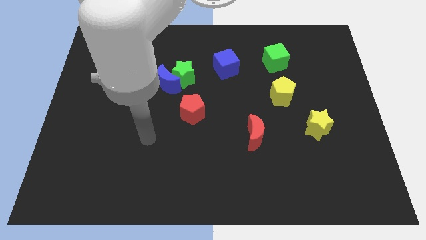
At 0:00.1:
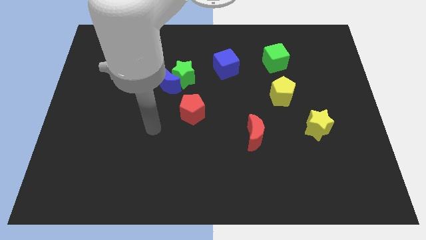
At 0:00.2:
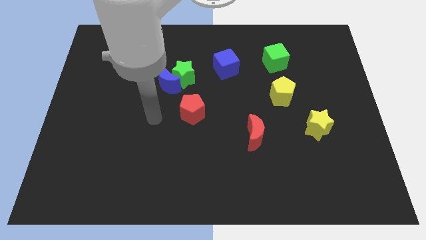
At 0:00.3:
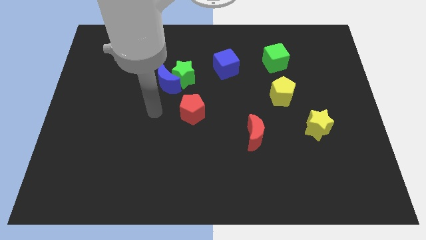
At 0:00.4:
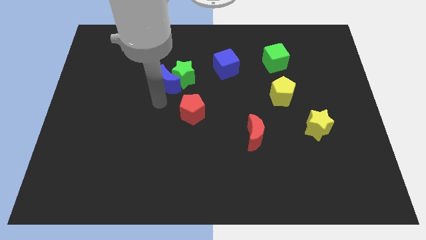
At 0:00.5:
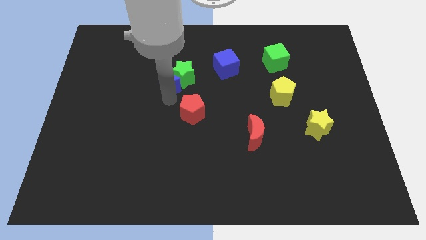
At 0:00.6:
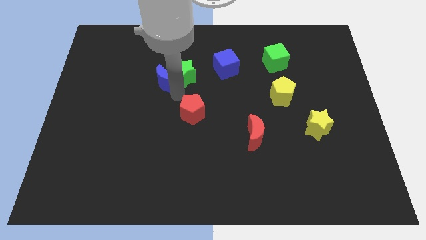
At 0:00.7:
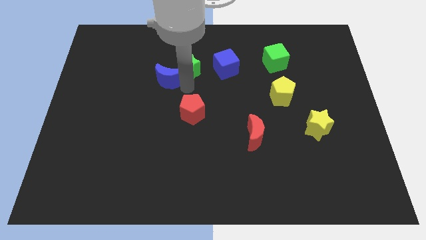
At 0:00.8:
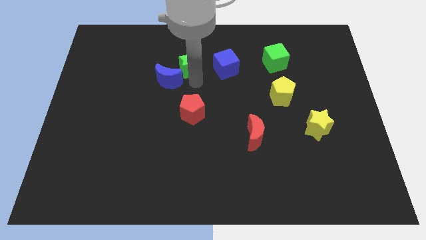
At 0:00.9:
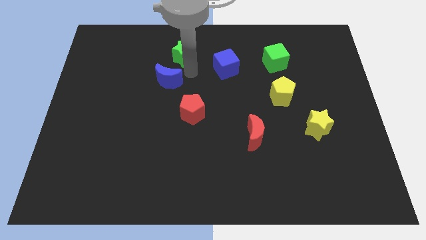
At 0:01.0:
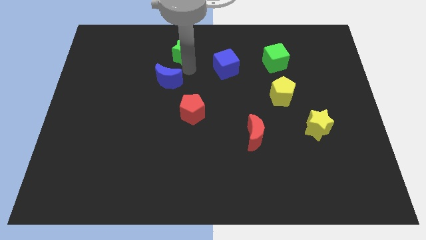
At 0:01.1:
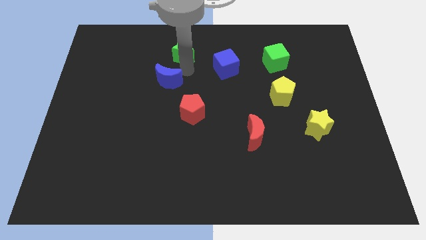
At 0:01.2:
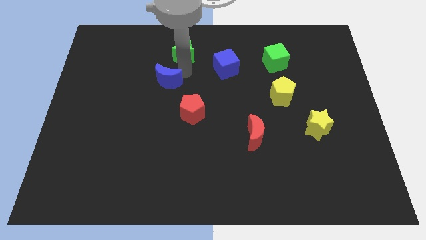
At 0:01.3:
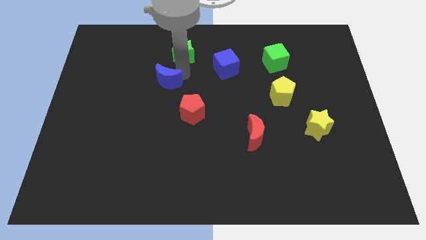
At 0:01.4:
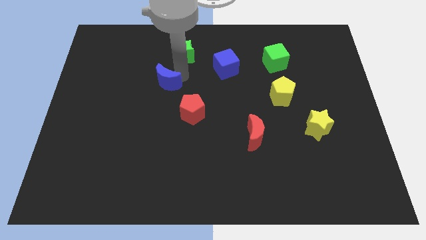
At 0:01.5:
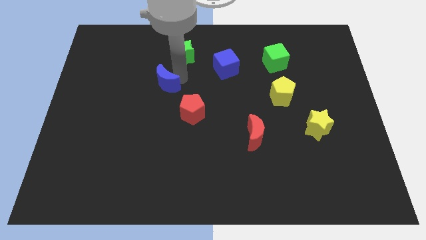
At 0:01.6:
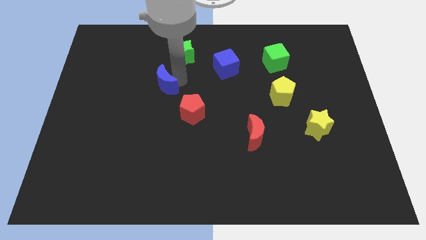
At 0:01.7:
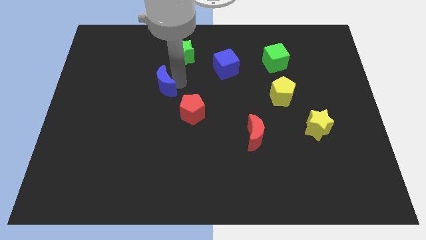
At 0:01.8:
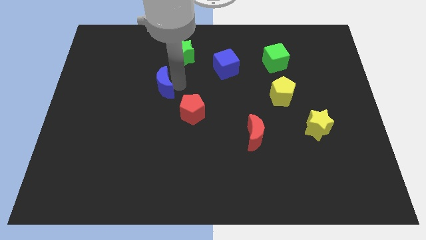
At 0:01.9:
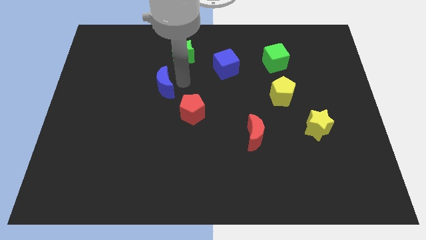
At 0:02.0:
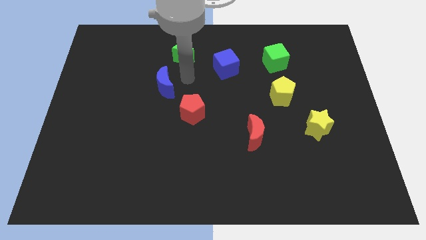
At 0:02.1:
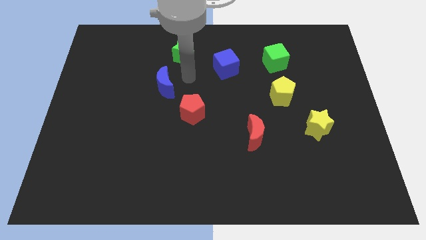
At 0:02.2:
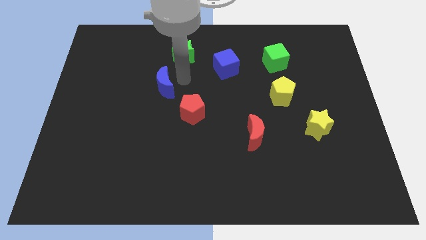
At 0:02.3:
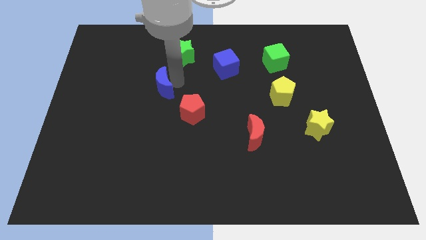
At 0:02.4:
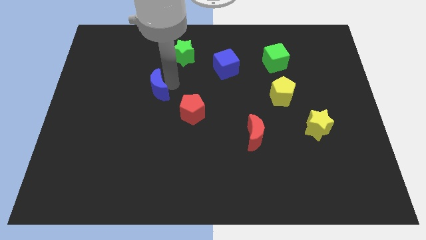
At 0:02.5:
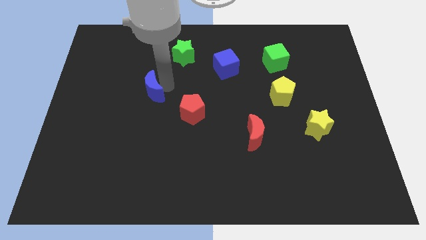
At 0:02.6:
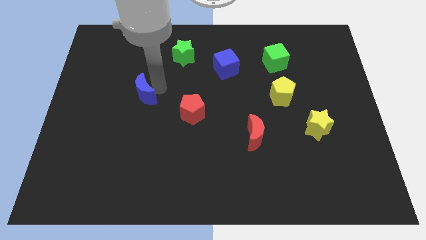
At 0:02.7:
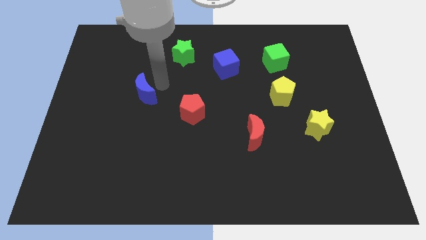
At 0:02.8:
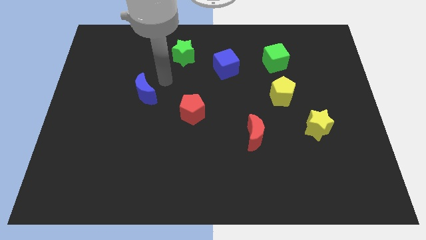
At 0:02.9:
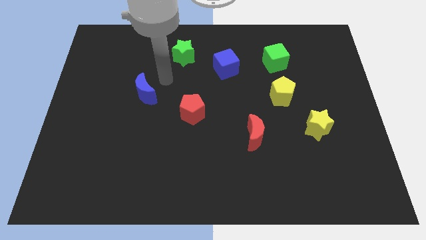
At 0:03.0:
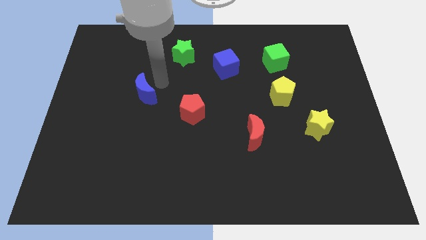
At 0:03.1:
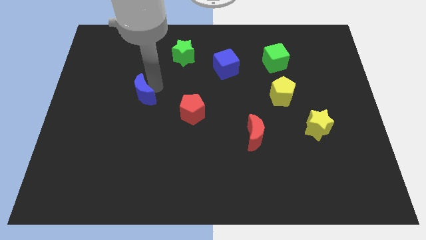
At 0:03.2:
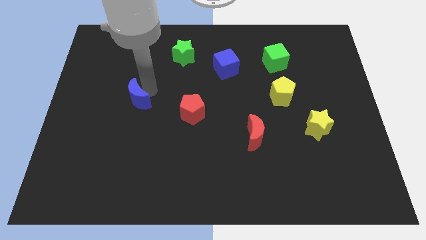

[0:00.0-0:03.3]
slightly push the blue moon downwards and then left

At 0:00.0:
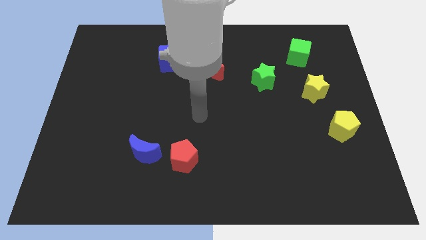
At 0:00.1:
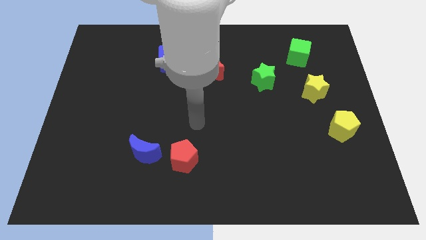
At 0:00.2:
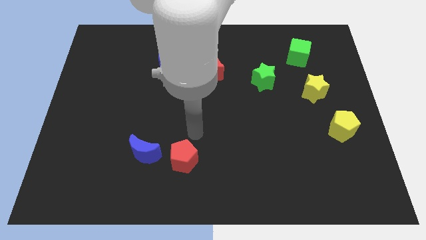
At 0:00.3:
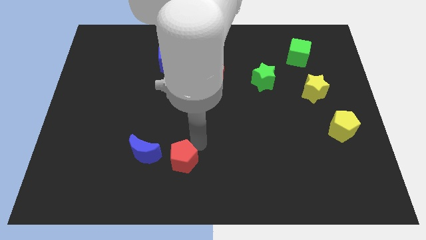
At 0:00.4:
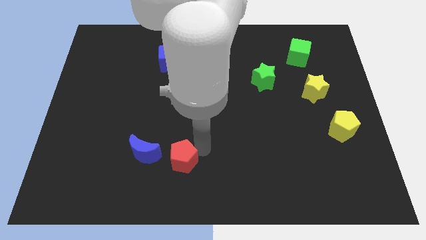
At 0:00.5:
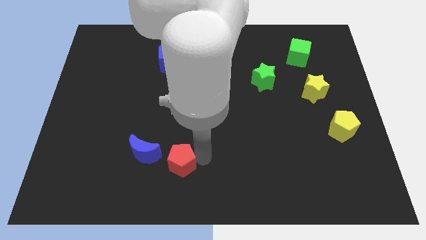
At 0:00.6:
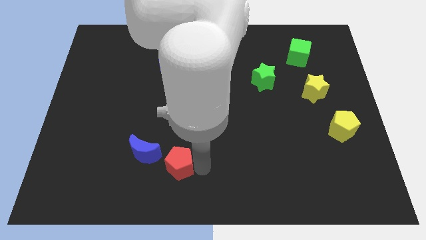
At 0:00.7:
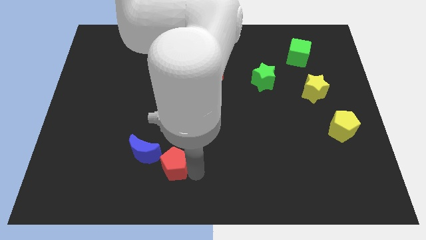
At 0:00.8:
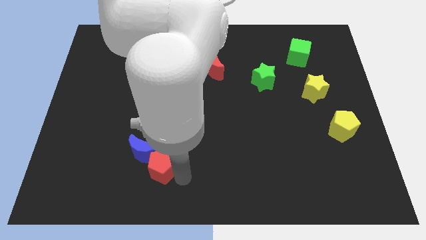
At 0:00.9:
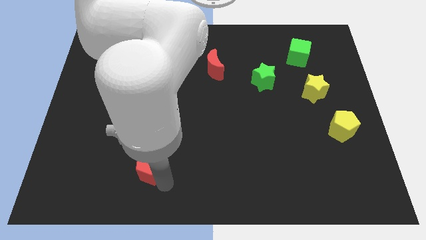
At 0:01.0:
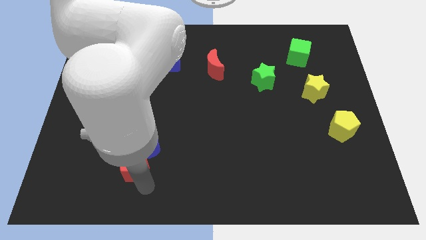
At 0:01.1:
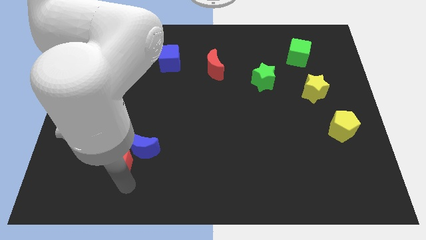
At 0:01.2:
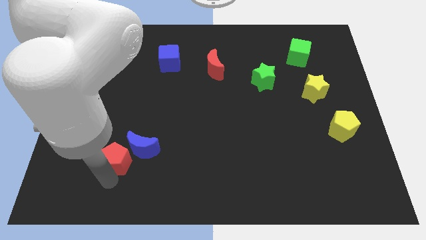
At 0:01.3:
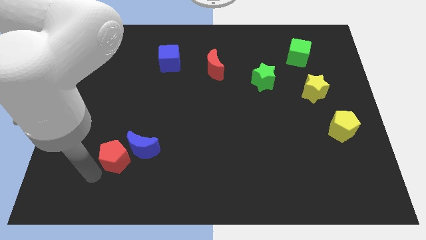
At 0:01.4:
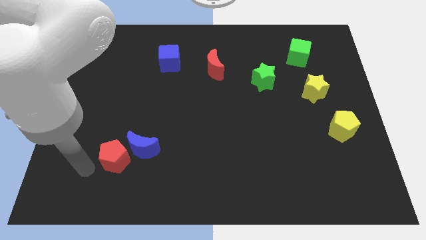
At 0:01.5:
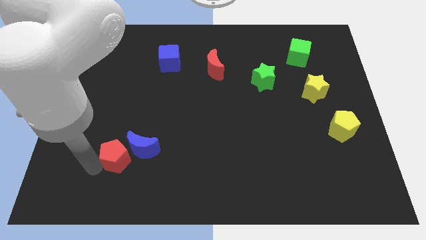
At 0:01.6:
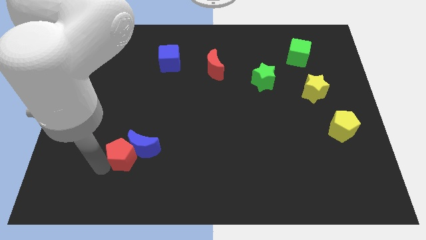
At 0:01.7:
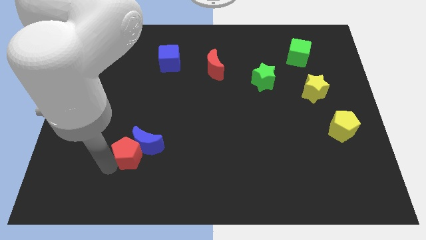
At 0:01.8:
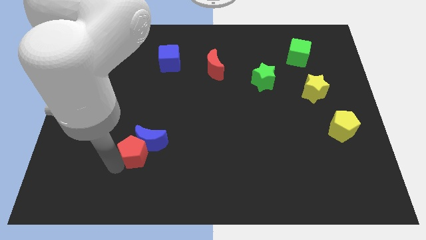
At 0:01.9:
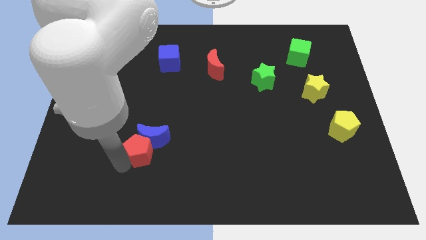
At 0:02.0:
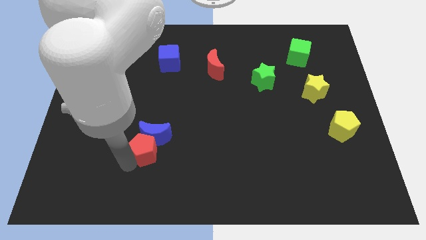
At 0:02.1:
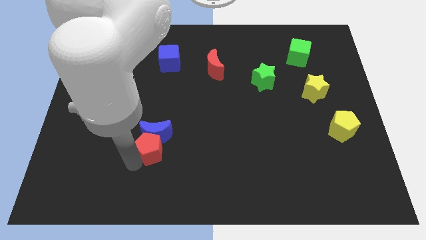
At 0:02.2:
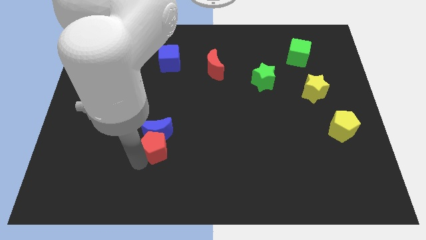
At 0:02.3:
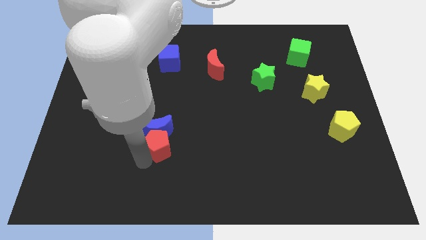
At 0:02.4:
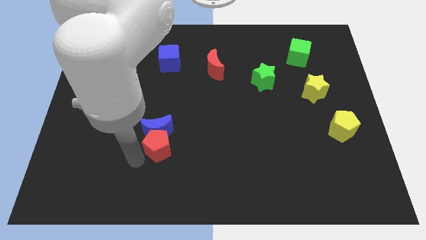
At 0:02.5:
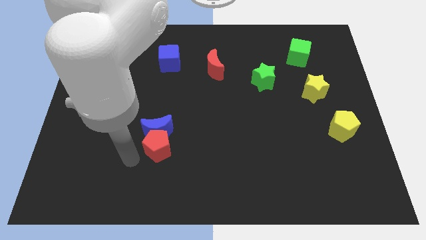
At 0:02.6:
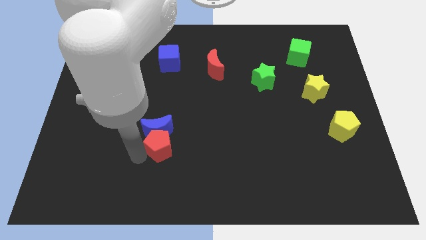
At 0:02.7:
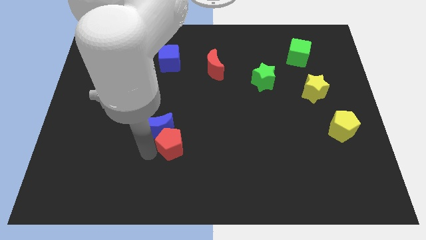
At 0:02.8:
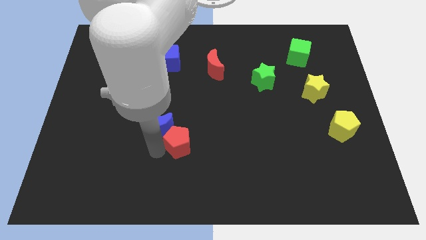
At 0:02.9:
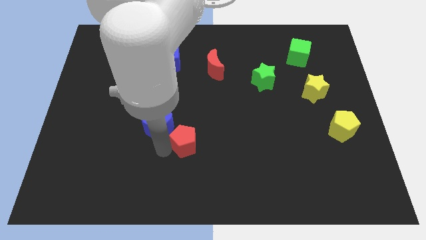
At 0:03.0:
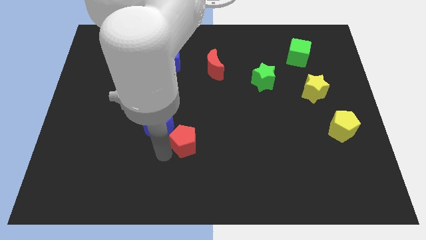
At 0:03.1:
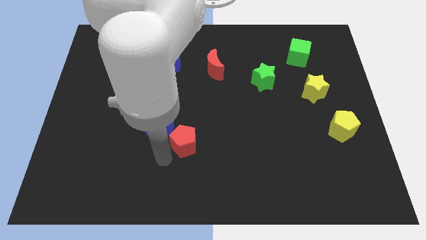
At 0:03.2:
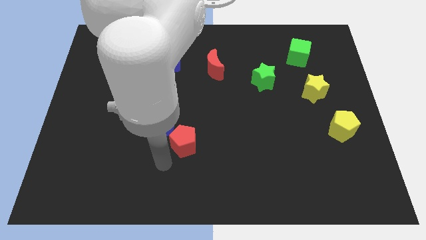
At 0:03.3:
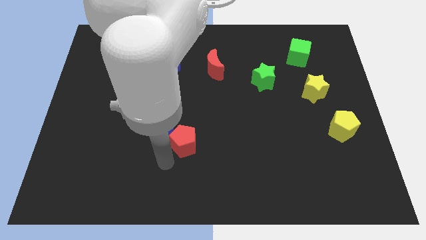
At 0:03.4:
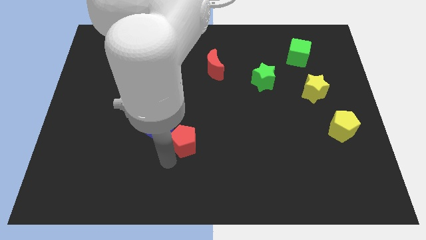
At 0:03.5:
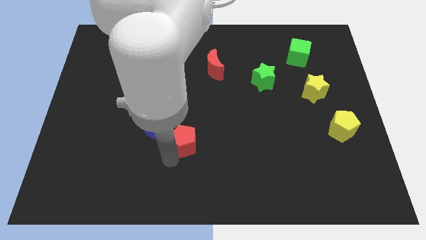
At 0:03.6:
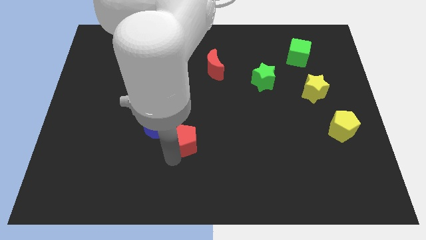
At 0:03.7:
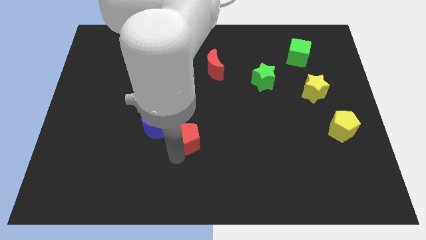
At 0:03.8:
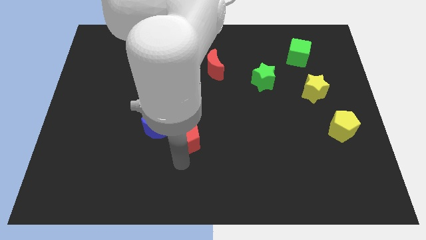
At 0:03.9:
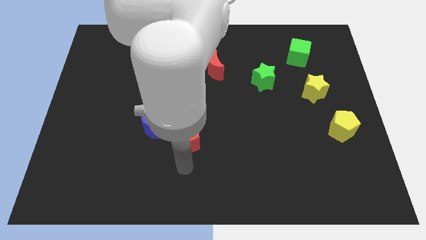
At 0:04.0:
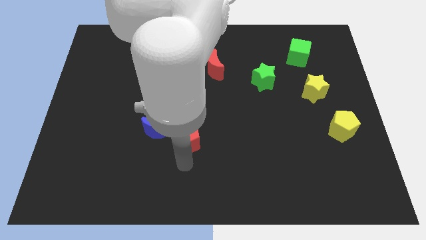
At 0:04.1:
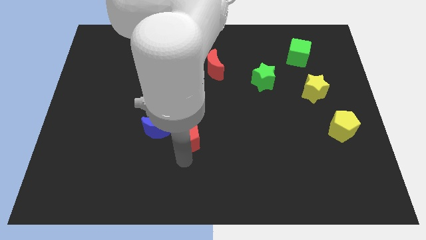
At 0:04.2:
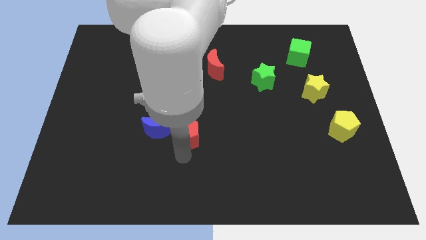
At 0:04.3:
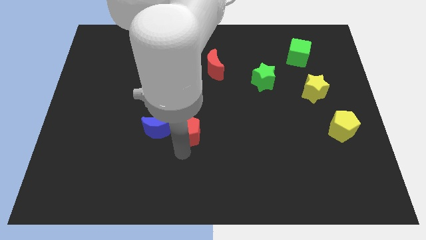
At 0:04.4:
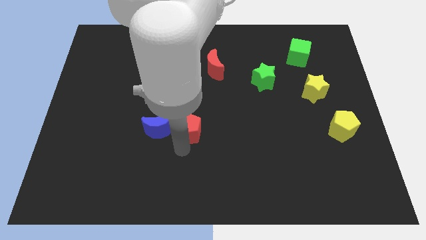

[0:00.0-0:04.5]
slightly slide the red pentagon up
